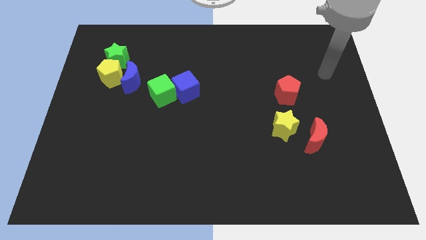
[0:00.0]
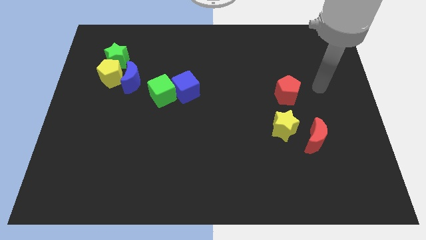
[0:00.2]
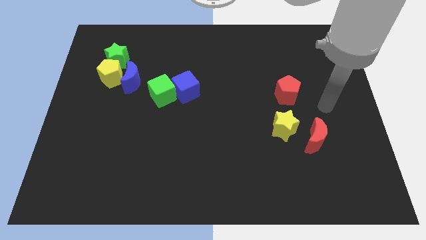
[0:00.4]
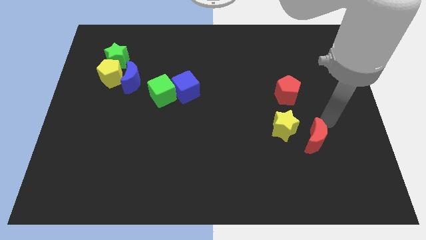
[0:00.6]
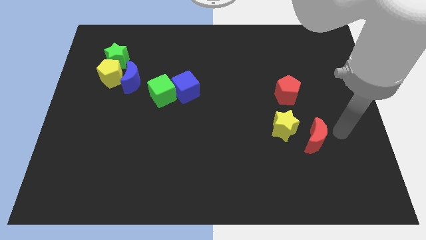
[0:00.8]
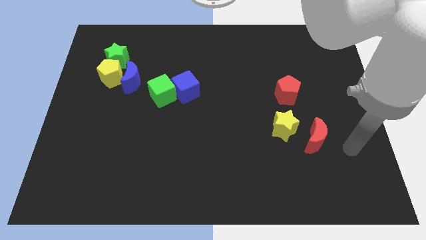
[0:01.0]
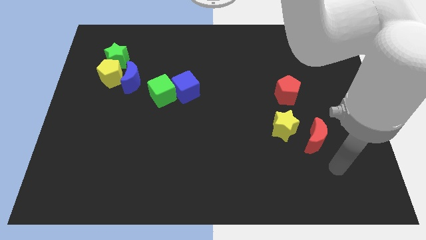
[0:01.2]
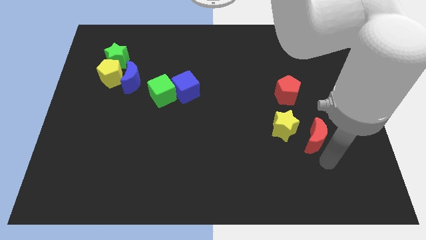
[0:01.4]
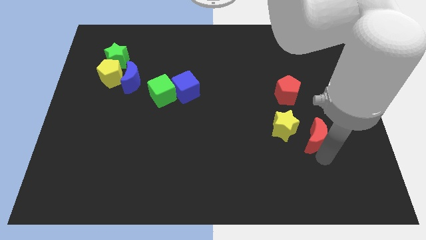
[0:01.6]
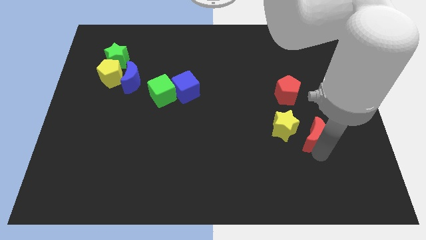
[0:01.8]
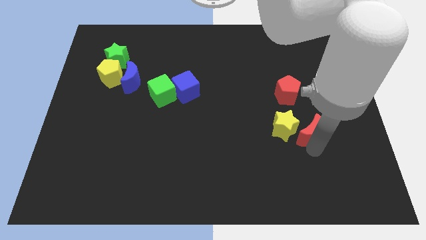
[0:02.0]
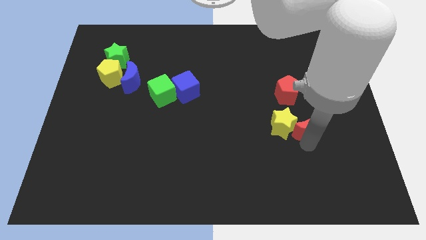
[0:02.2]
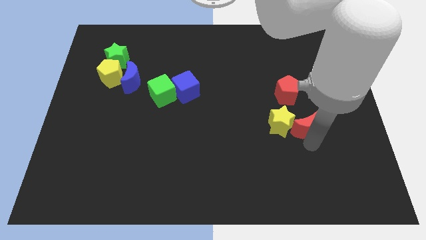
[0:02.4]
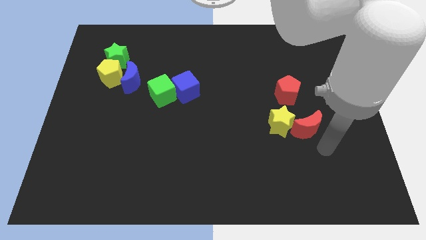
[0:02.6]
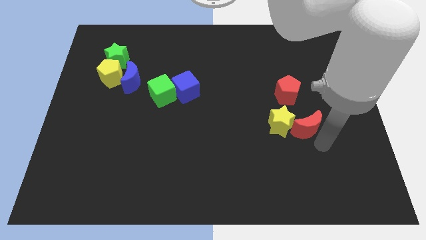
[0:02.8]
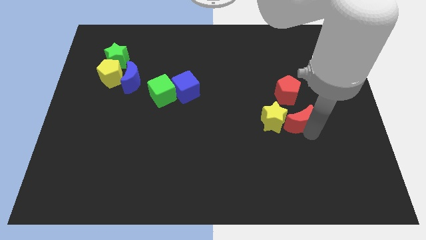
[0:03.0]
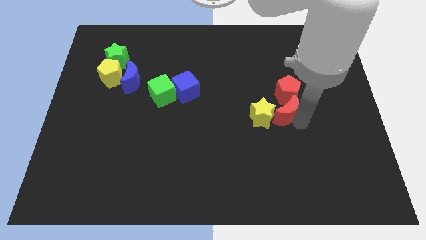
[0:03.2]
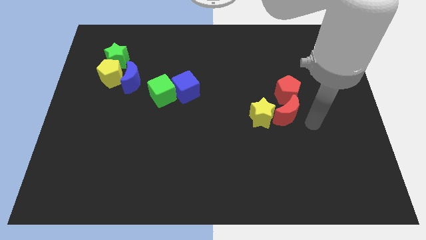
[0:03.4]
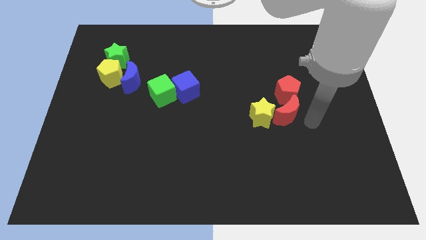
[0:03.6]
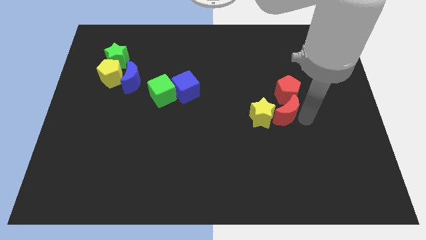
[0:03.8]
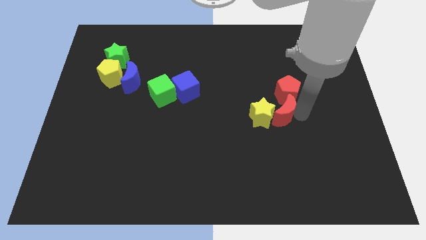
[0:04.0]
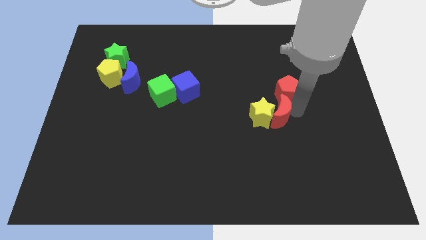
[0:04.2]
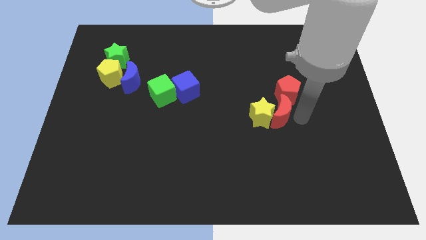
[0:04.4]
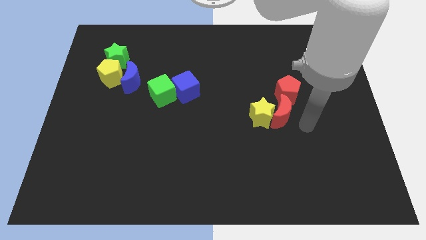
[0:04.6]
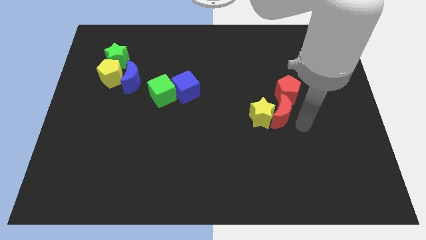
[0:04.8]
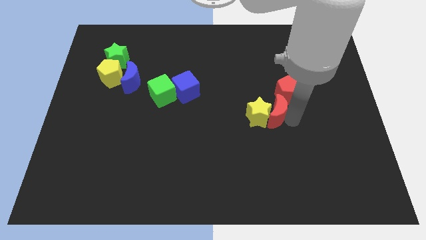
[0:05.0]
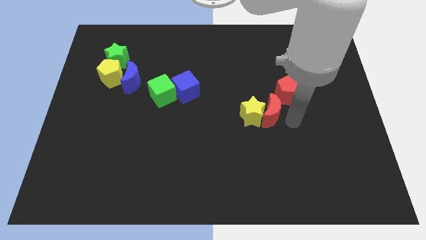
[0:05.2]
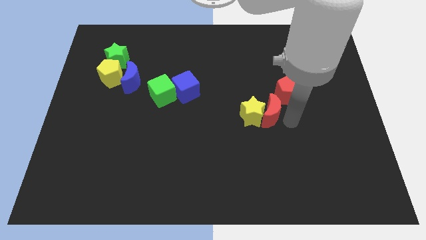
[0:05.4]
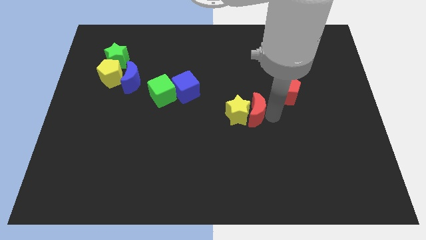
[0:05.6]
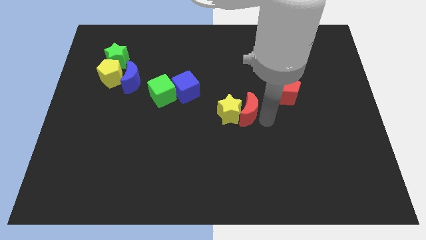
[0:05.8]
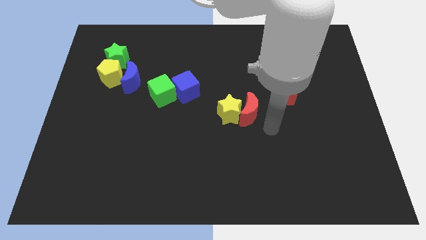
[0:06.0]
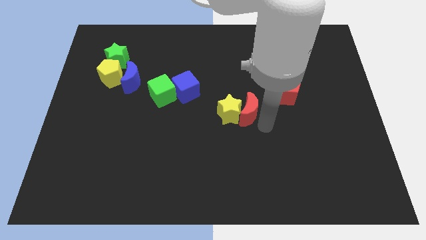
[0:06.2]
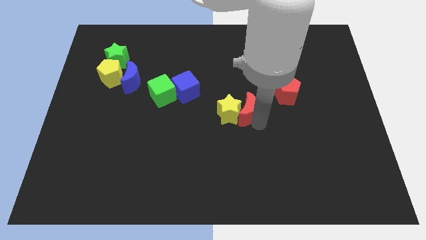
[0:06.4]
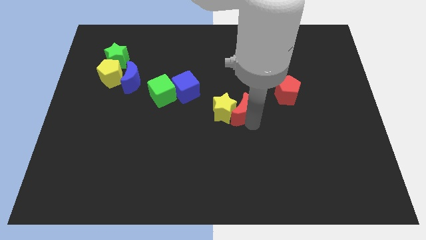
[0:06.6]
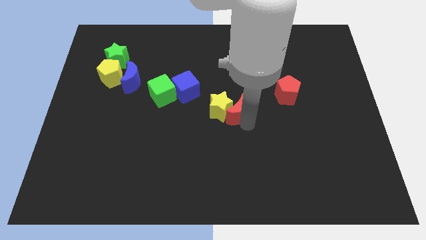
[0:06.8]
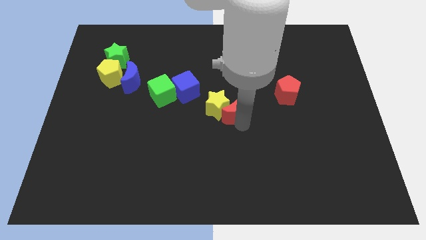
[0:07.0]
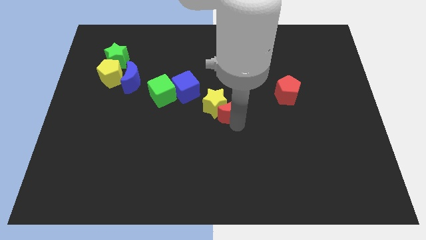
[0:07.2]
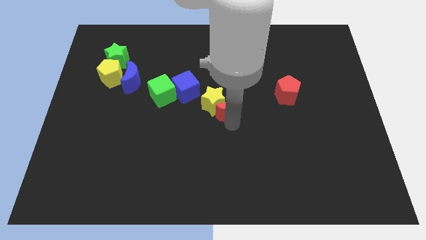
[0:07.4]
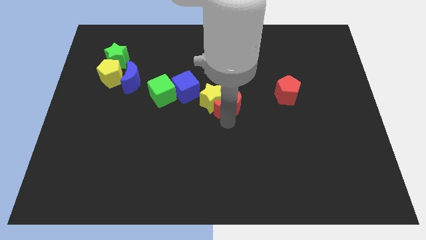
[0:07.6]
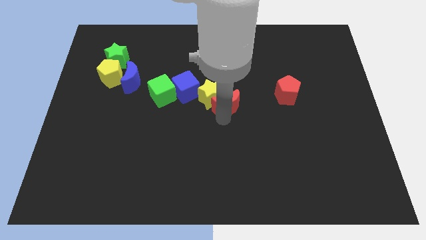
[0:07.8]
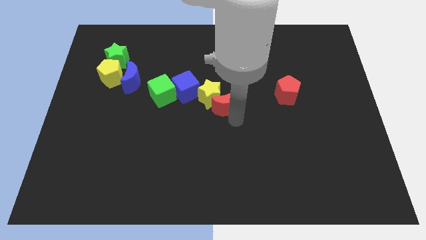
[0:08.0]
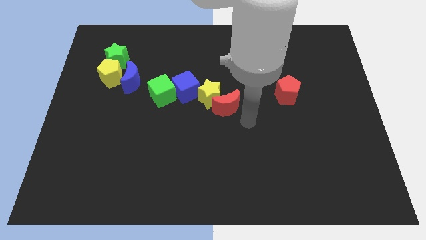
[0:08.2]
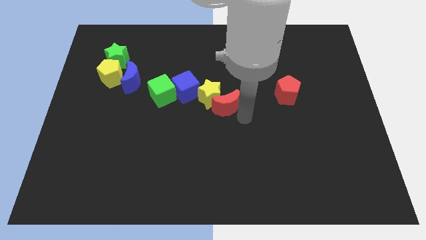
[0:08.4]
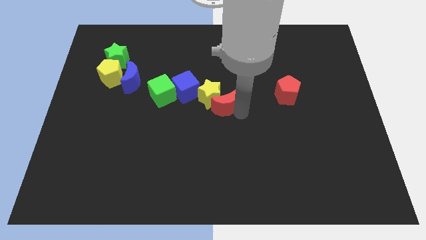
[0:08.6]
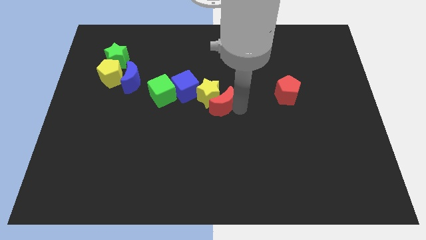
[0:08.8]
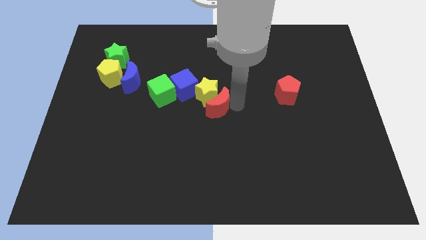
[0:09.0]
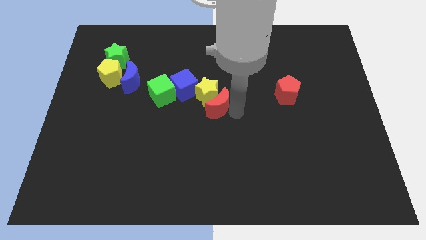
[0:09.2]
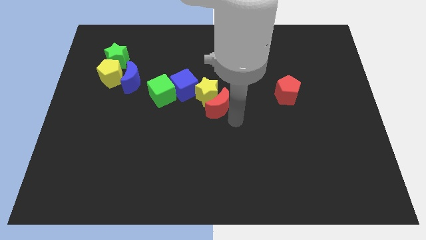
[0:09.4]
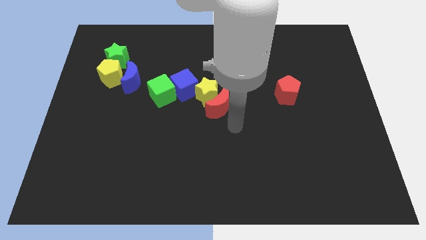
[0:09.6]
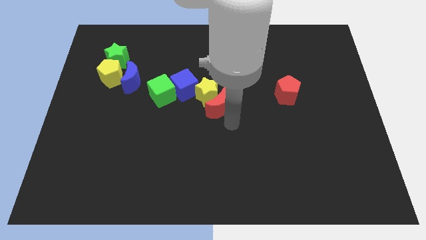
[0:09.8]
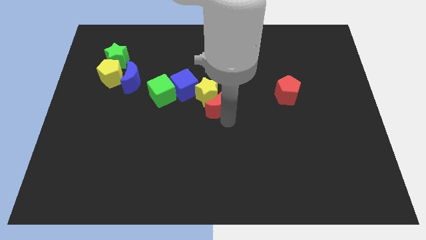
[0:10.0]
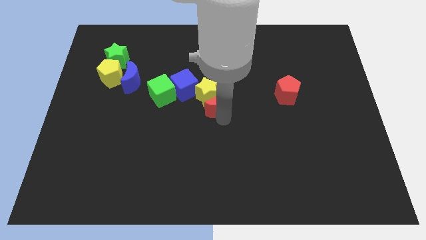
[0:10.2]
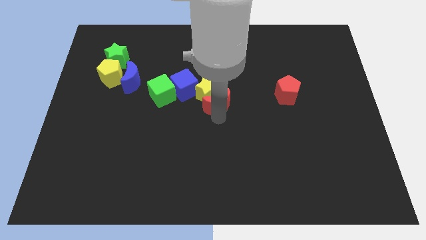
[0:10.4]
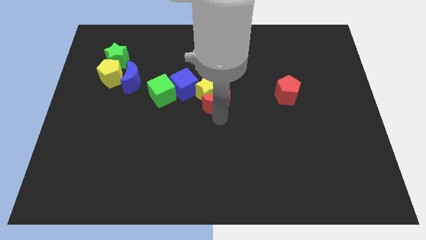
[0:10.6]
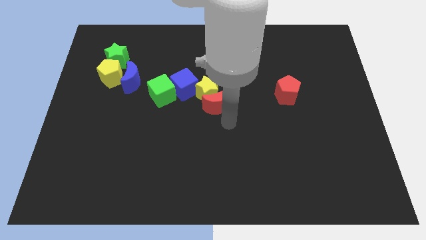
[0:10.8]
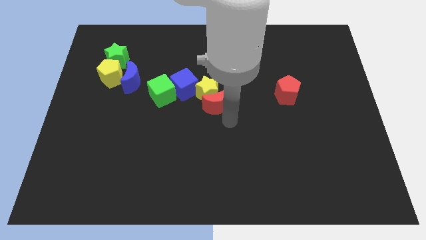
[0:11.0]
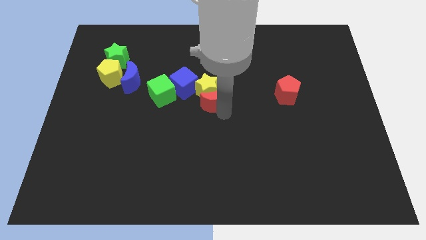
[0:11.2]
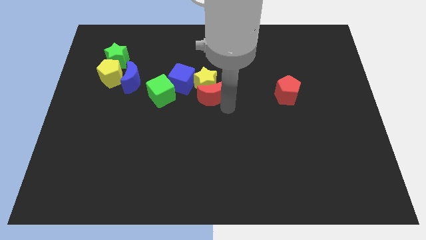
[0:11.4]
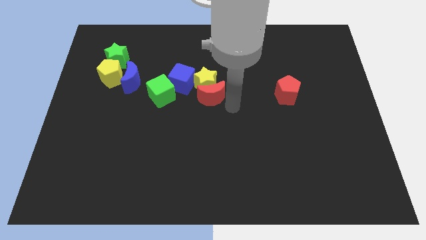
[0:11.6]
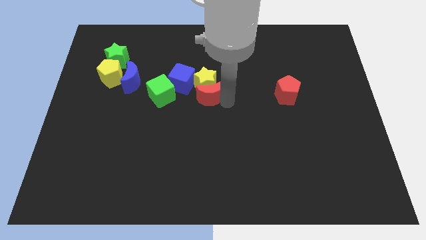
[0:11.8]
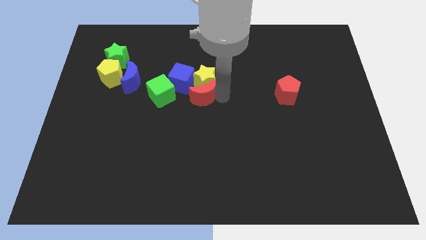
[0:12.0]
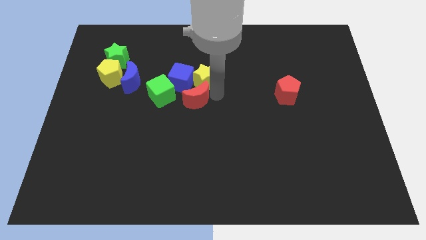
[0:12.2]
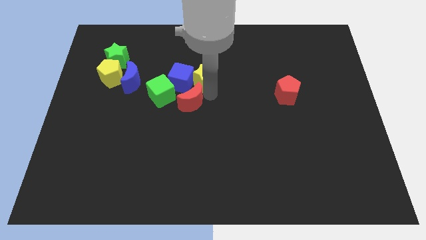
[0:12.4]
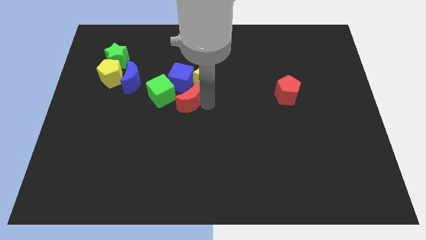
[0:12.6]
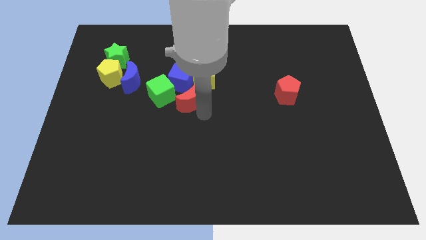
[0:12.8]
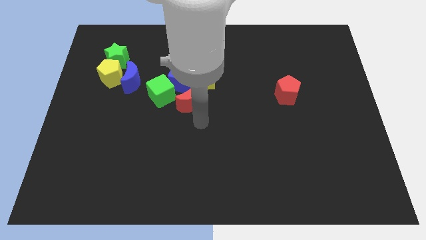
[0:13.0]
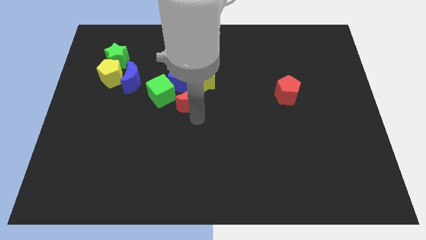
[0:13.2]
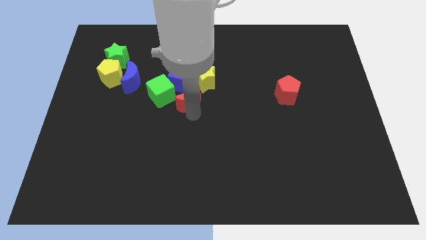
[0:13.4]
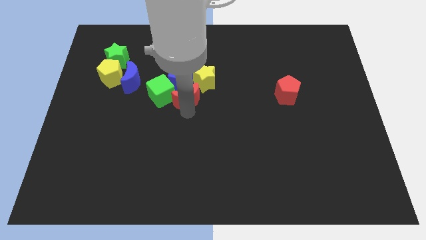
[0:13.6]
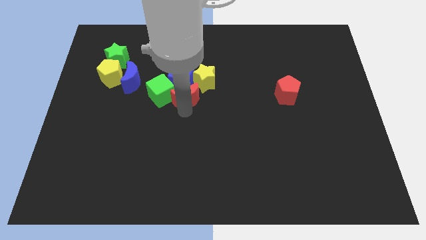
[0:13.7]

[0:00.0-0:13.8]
move the red moon next to the blue cube
